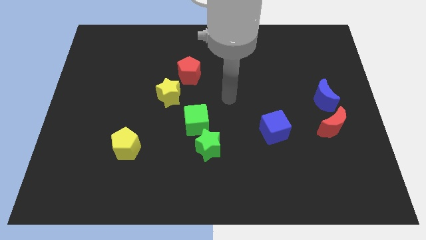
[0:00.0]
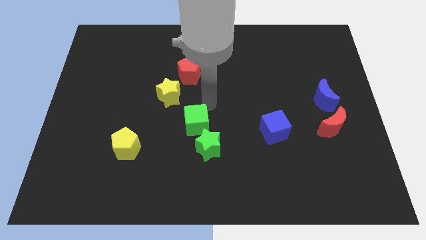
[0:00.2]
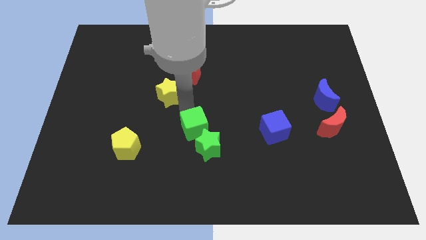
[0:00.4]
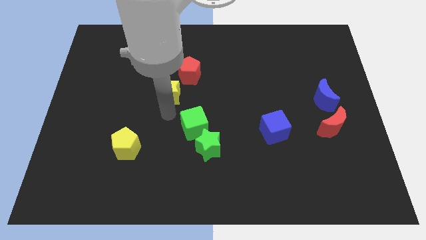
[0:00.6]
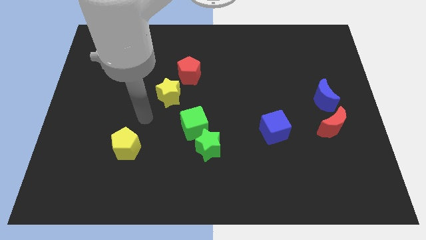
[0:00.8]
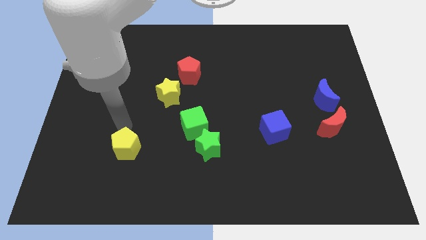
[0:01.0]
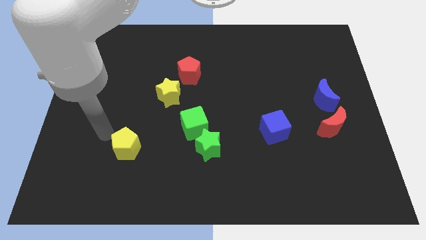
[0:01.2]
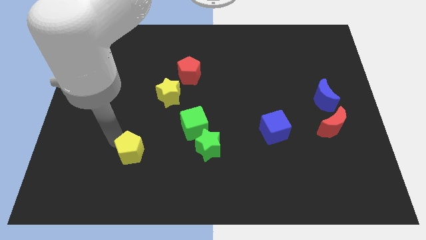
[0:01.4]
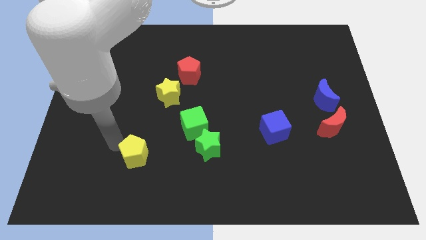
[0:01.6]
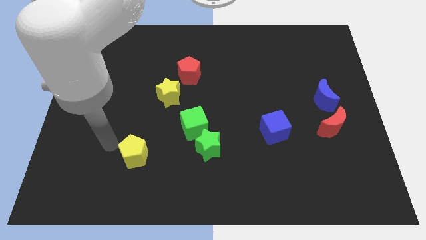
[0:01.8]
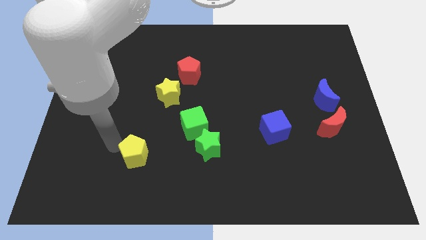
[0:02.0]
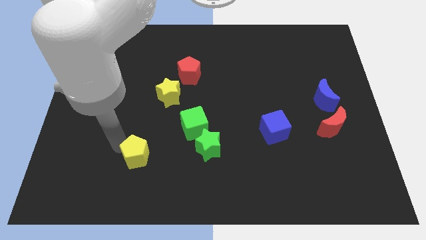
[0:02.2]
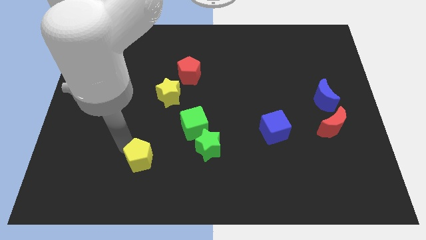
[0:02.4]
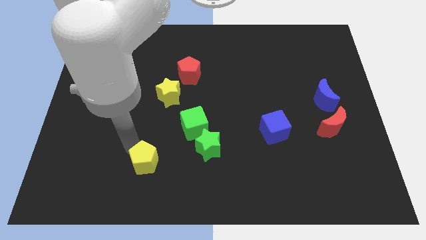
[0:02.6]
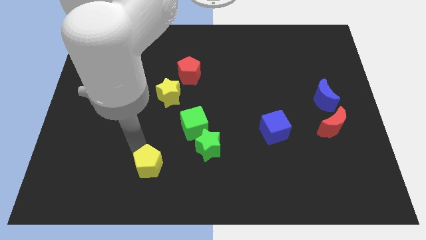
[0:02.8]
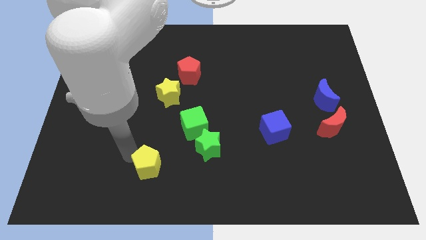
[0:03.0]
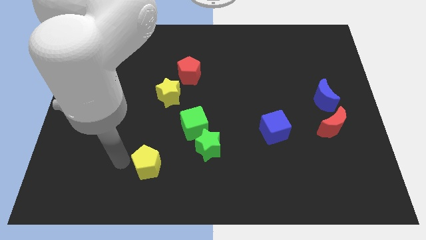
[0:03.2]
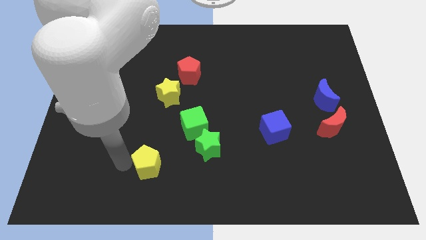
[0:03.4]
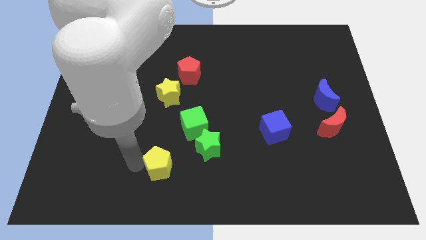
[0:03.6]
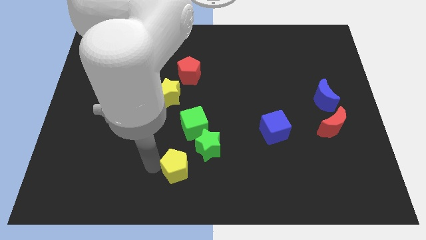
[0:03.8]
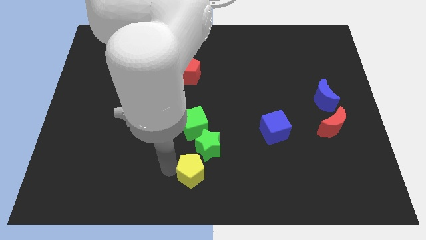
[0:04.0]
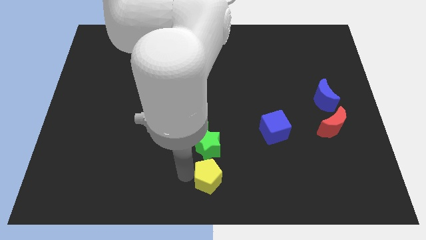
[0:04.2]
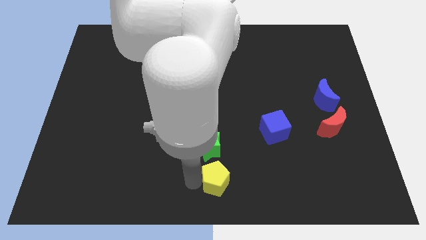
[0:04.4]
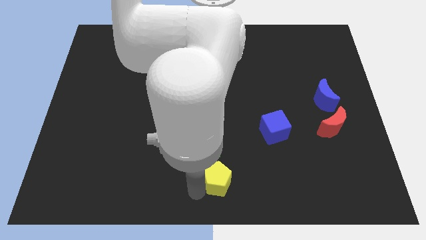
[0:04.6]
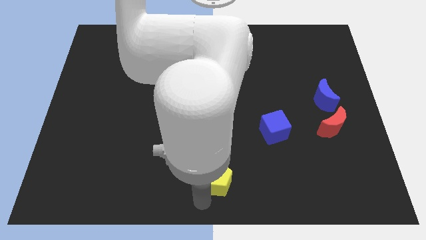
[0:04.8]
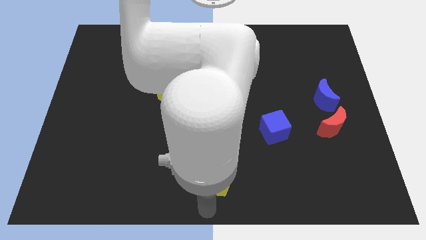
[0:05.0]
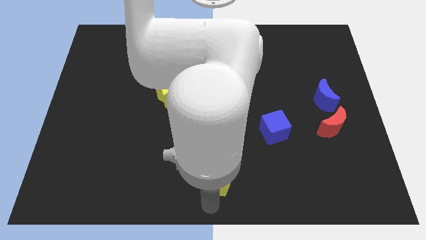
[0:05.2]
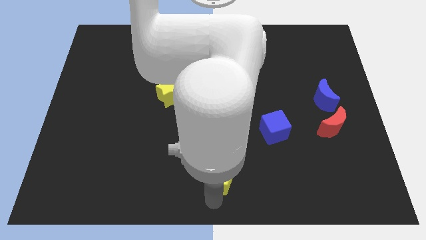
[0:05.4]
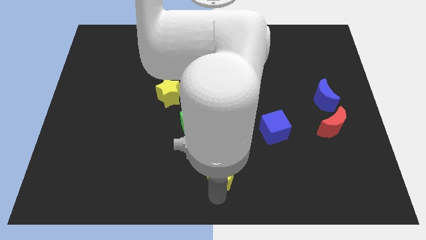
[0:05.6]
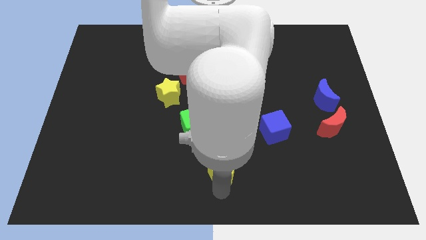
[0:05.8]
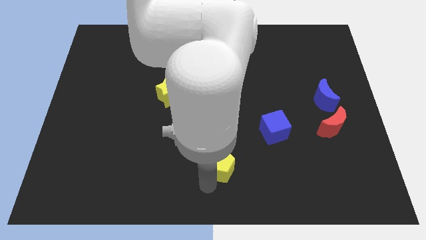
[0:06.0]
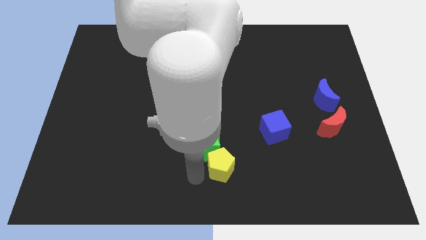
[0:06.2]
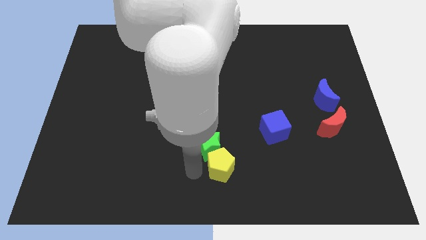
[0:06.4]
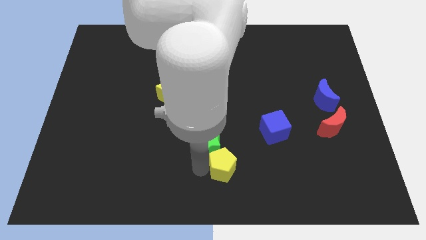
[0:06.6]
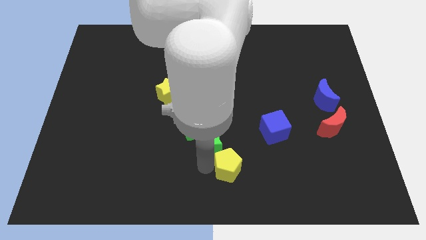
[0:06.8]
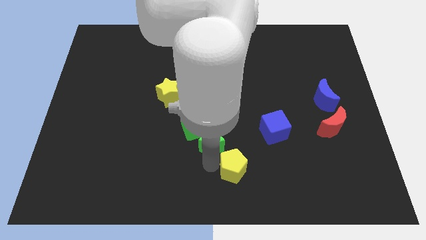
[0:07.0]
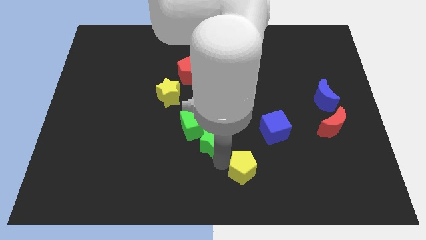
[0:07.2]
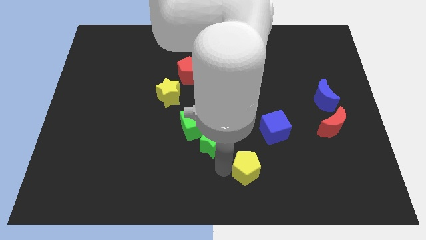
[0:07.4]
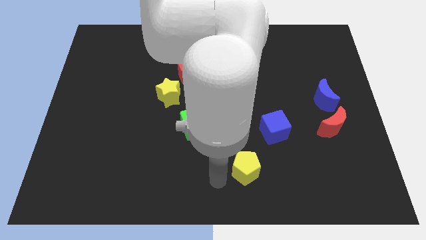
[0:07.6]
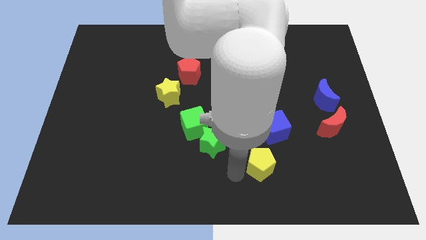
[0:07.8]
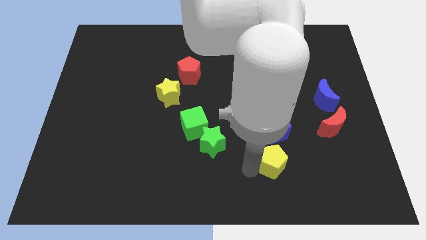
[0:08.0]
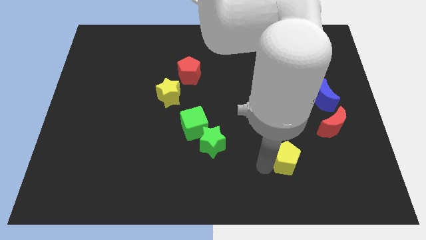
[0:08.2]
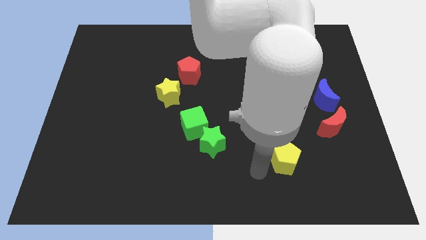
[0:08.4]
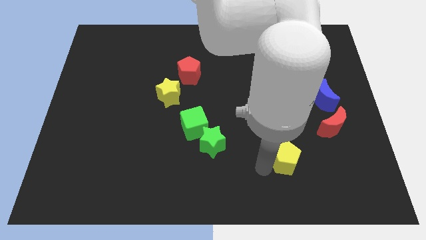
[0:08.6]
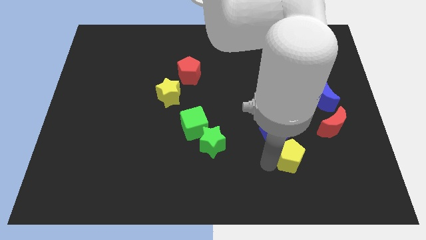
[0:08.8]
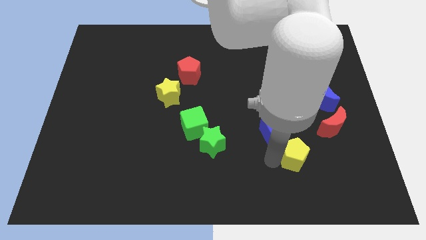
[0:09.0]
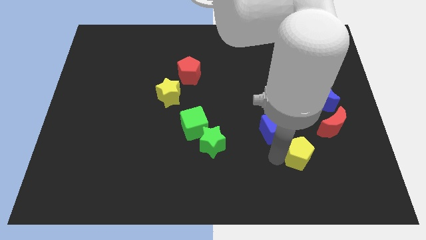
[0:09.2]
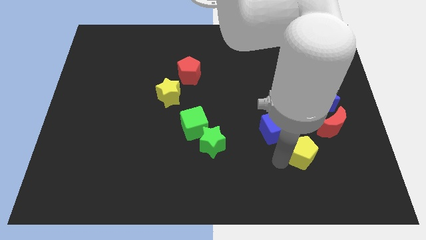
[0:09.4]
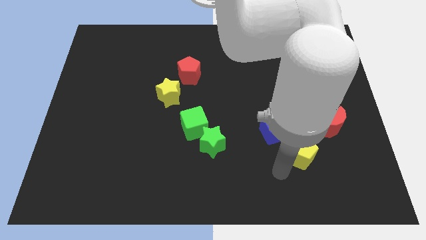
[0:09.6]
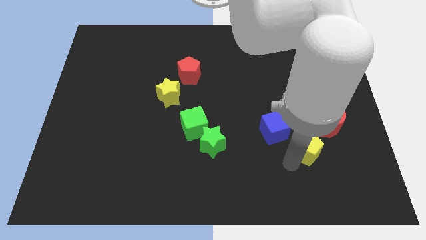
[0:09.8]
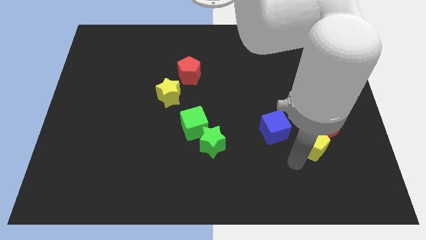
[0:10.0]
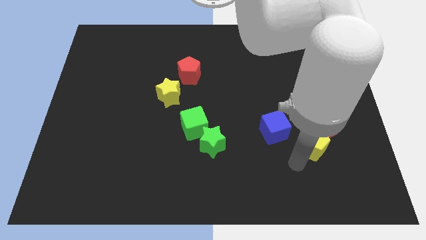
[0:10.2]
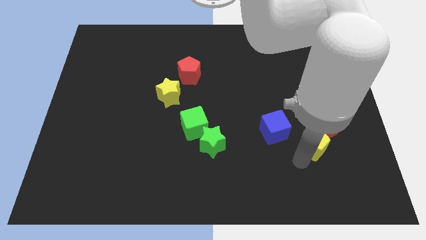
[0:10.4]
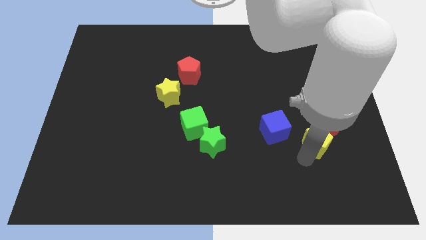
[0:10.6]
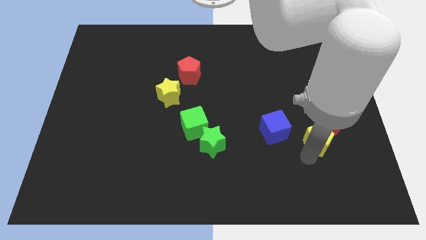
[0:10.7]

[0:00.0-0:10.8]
slide the yellow pentagon towards the red moon

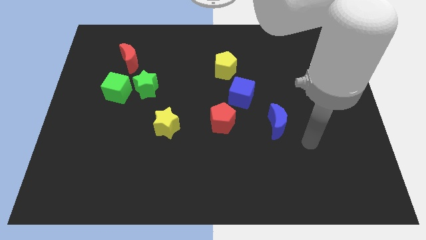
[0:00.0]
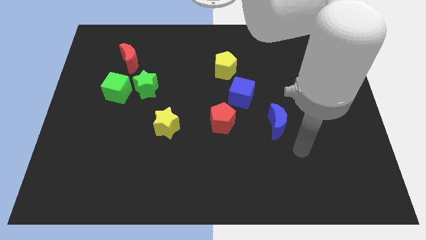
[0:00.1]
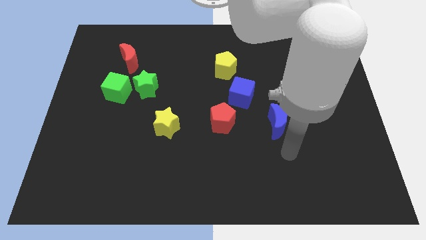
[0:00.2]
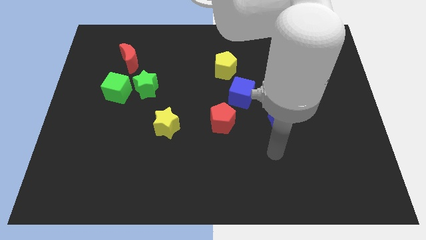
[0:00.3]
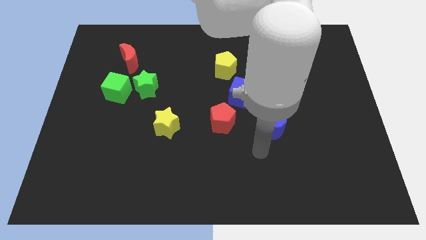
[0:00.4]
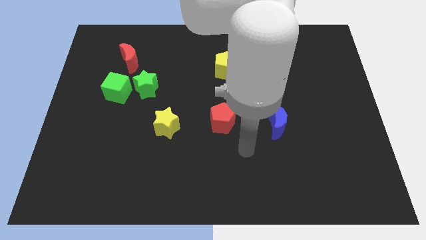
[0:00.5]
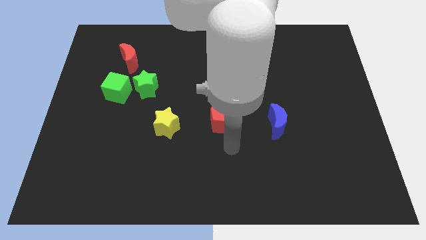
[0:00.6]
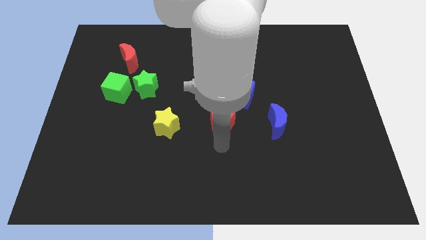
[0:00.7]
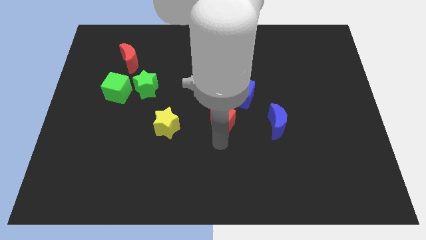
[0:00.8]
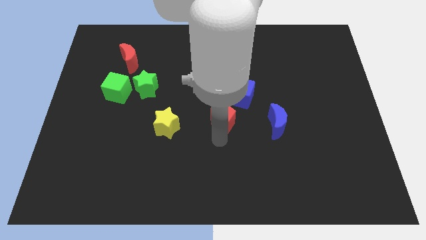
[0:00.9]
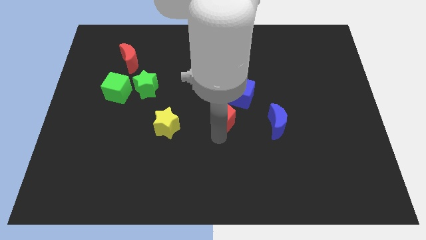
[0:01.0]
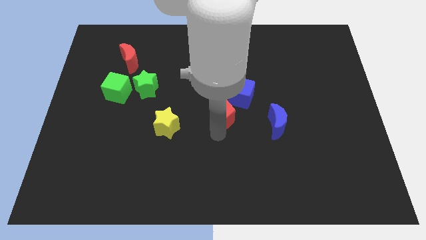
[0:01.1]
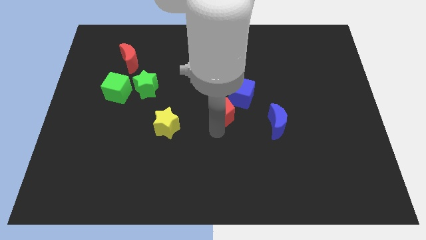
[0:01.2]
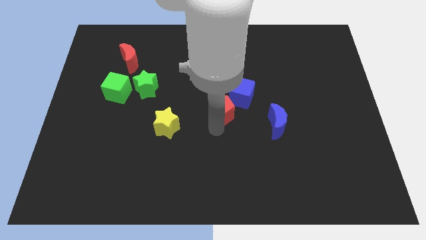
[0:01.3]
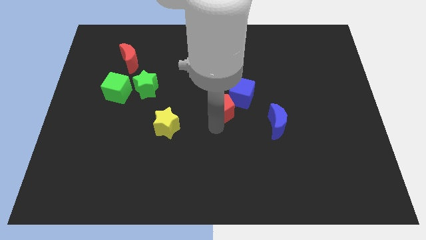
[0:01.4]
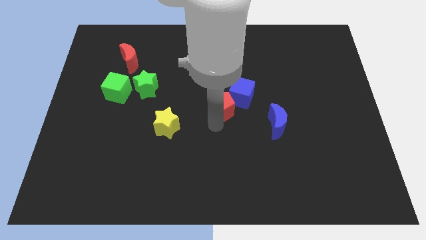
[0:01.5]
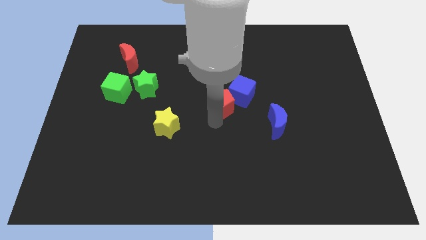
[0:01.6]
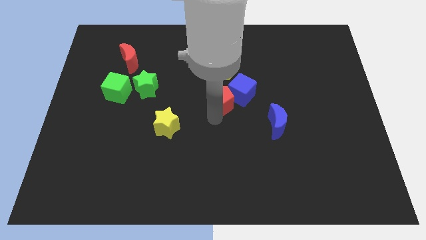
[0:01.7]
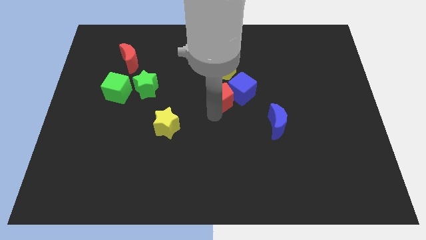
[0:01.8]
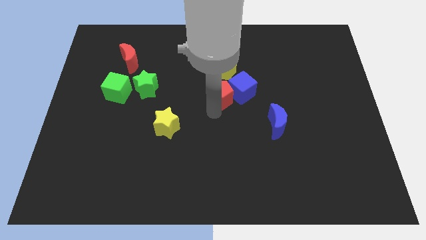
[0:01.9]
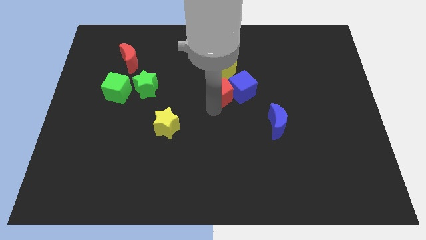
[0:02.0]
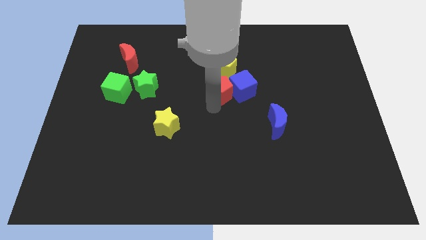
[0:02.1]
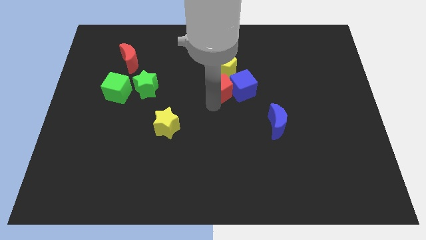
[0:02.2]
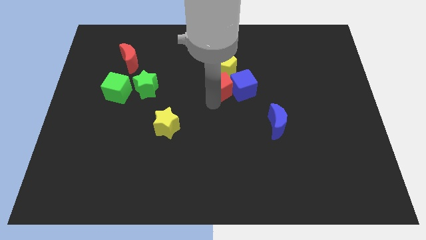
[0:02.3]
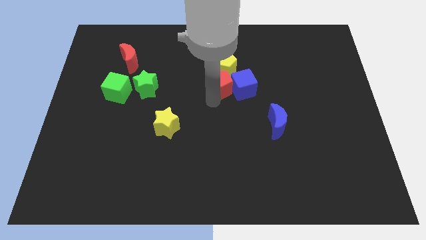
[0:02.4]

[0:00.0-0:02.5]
move the red pentagon towards the yellow pentagon
